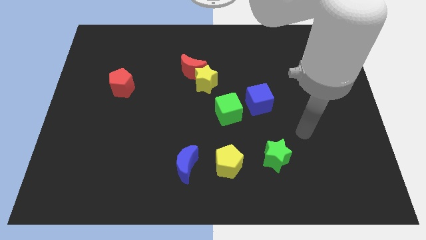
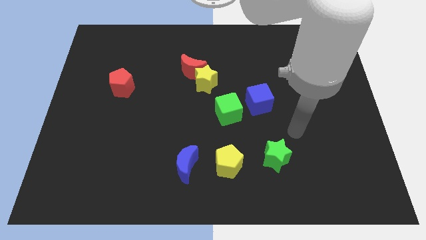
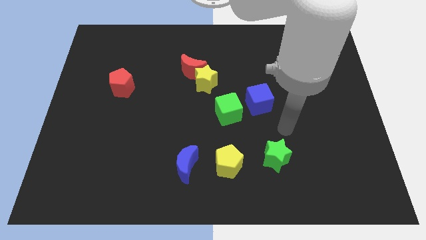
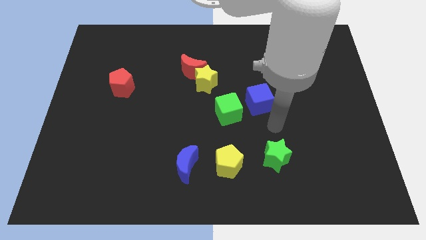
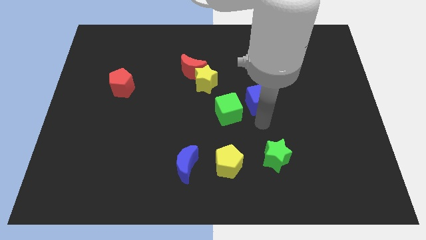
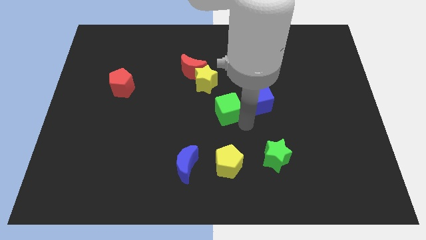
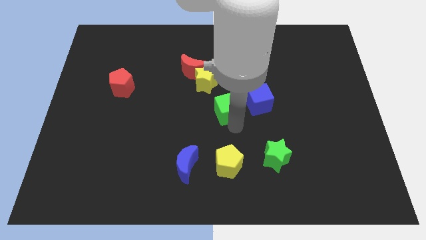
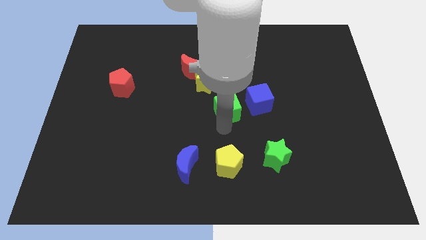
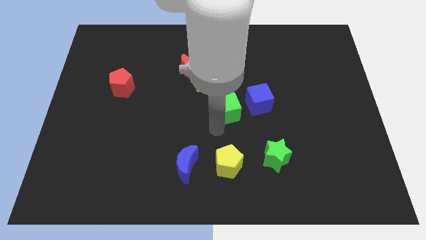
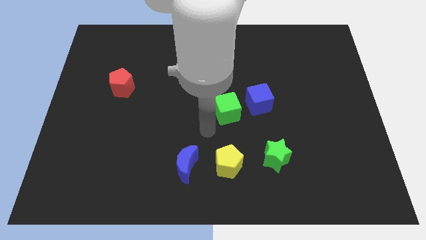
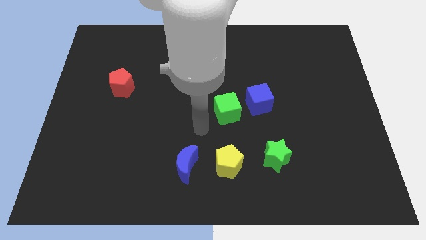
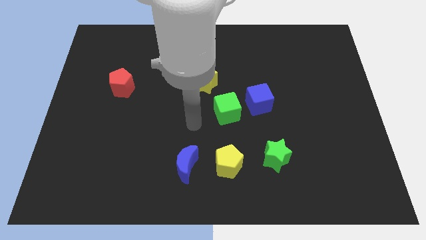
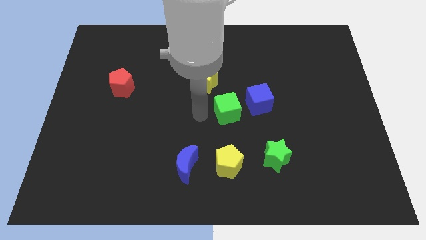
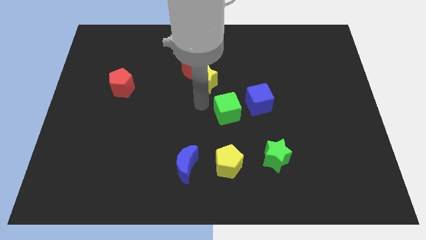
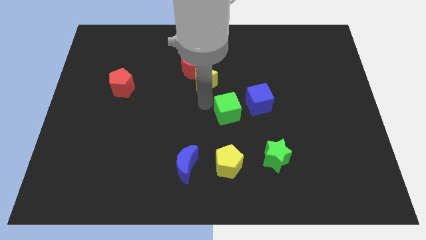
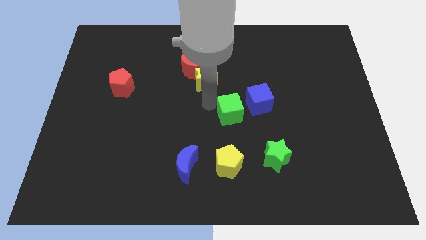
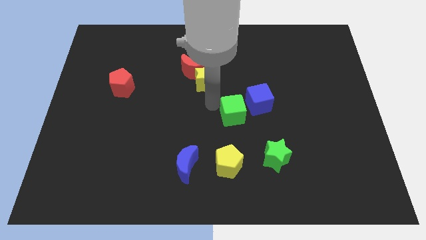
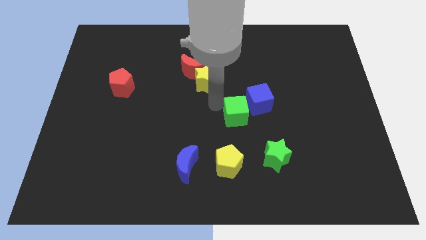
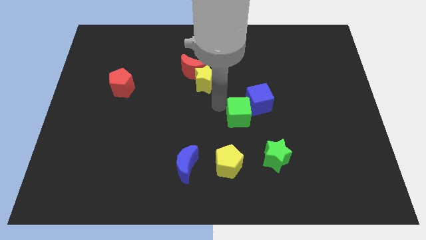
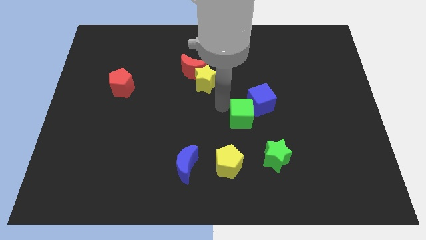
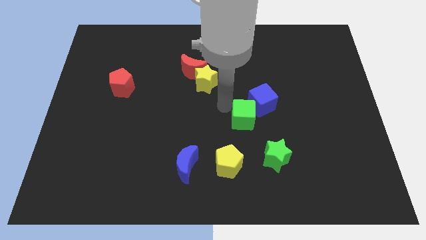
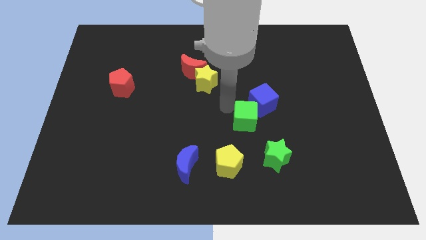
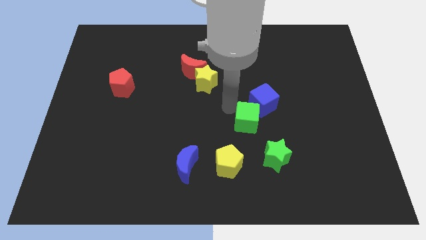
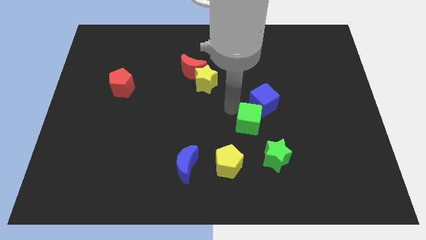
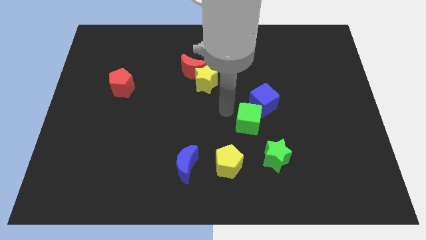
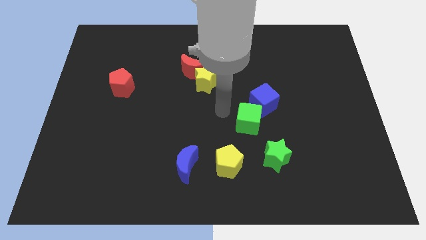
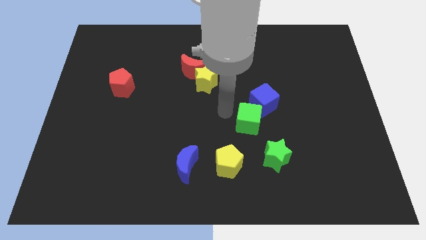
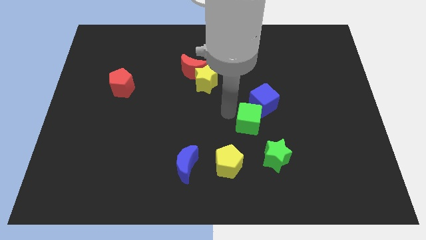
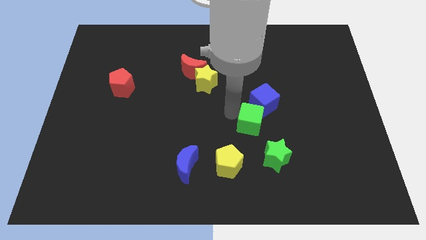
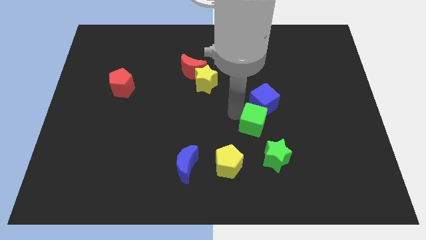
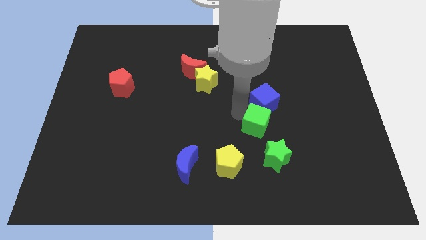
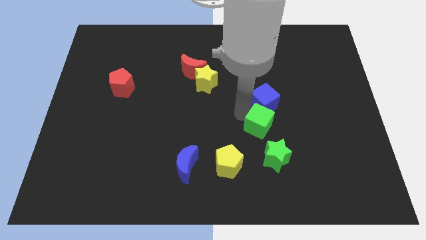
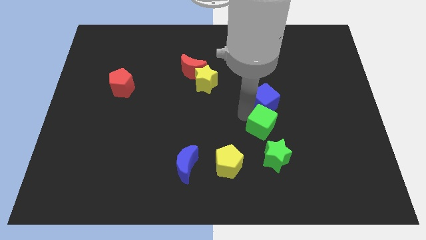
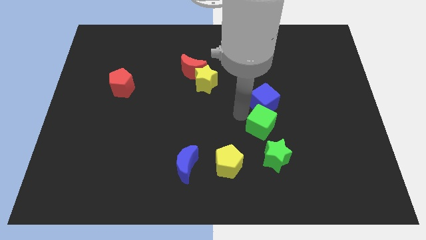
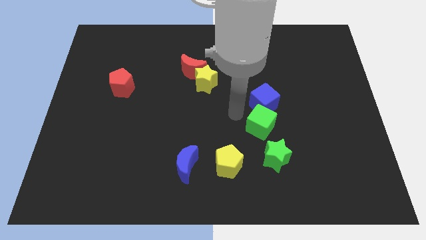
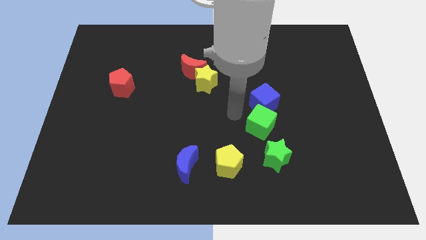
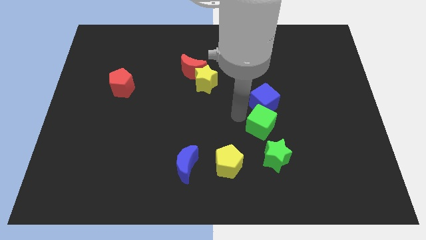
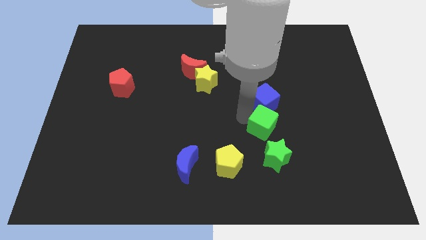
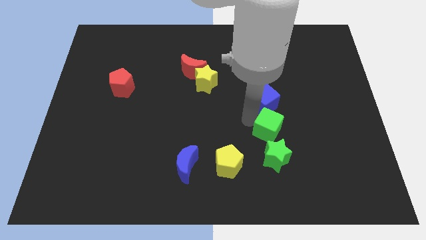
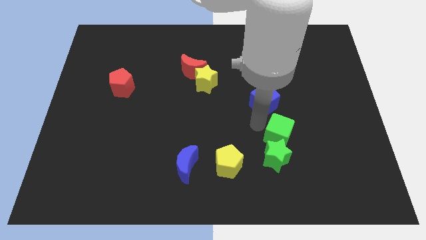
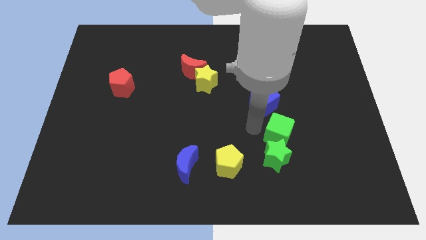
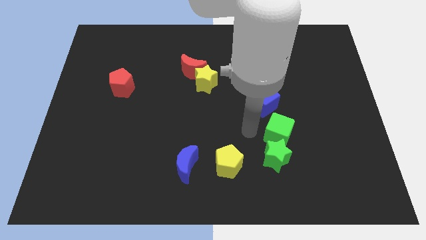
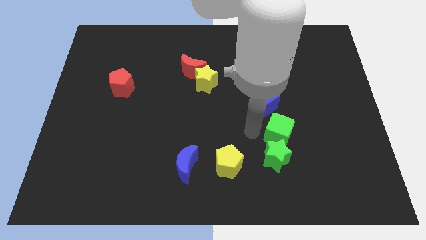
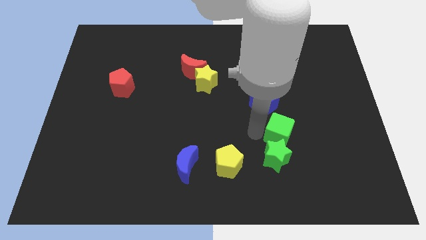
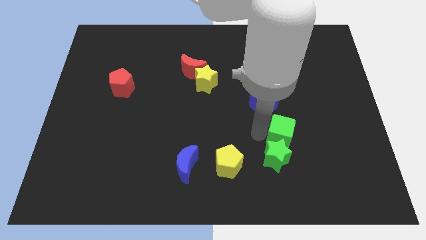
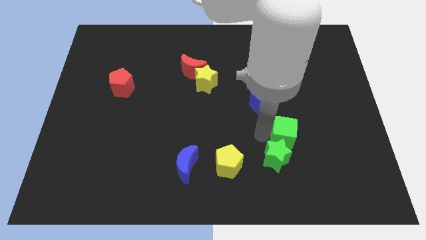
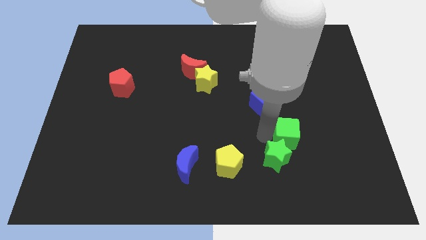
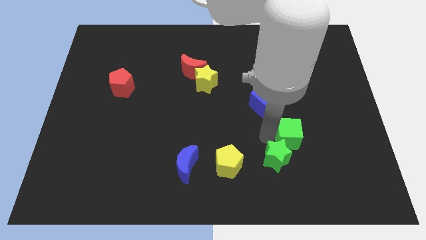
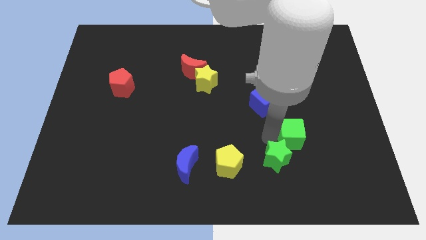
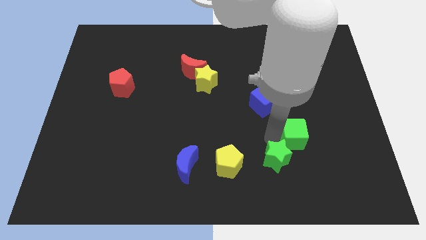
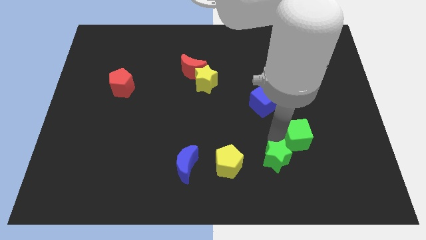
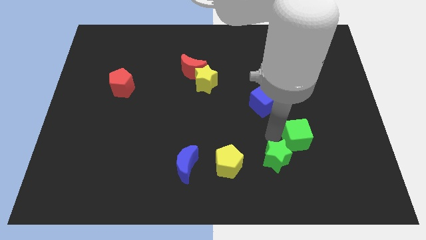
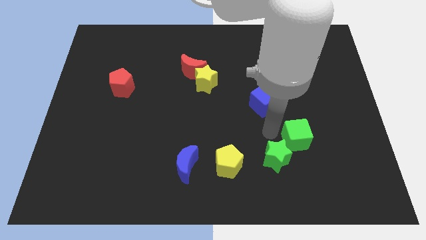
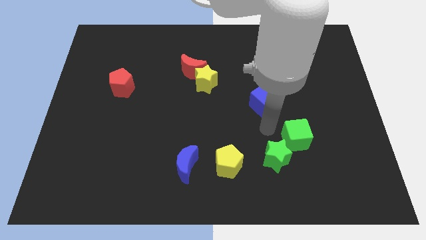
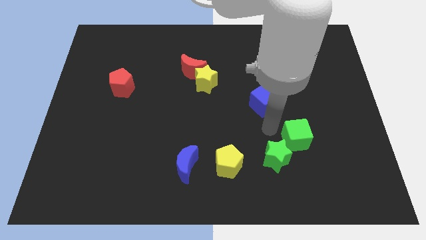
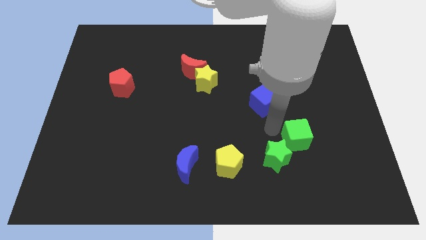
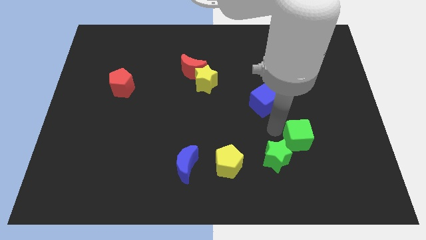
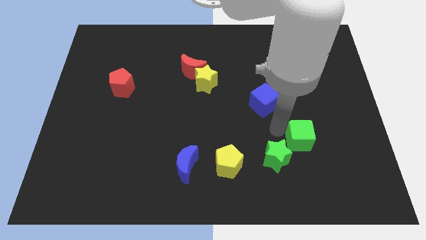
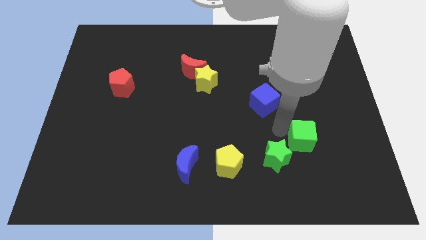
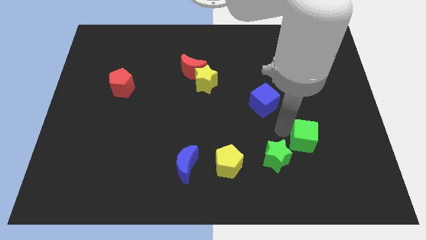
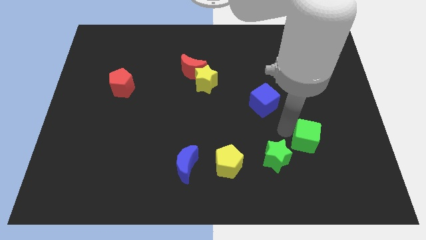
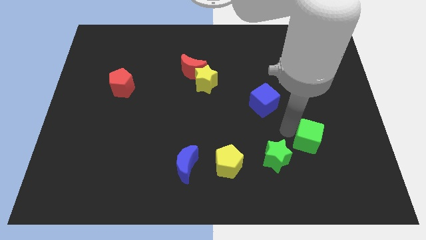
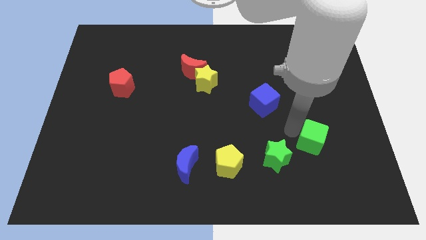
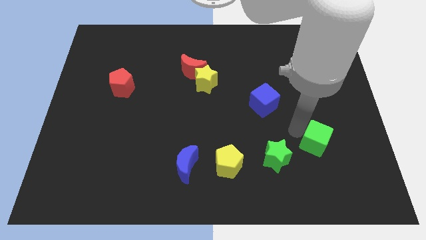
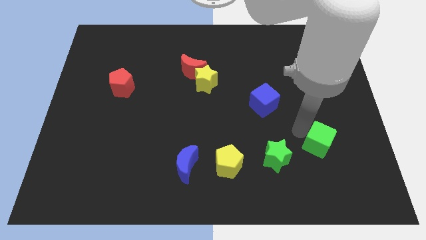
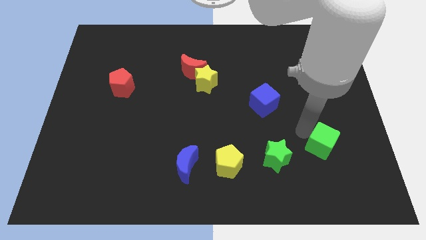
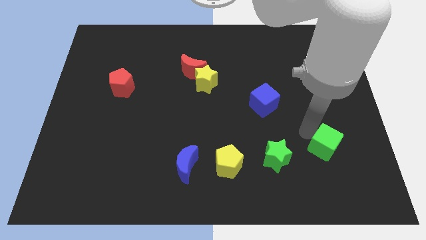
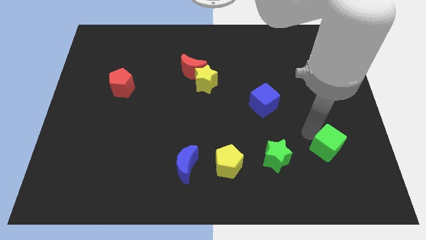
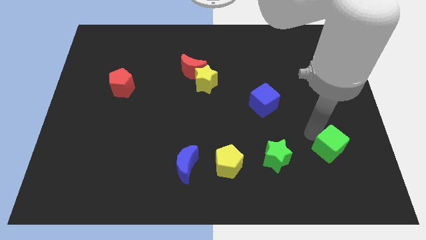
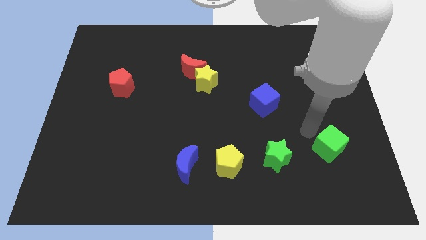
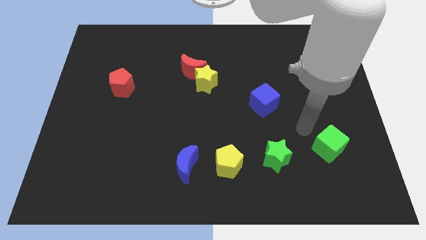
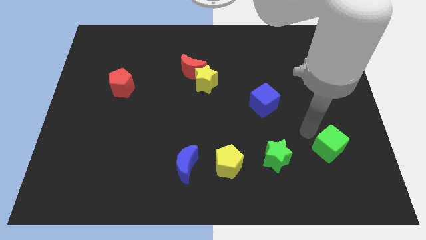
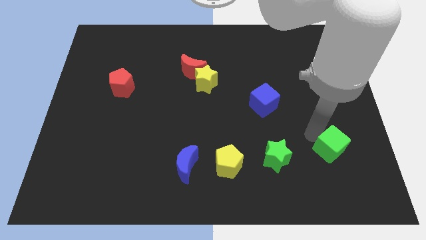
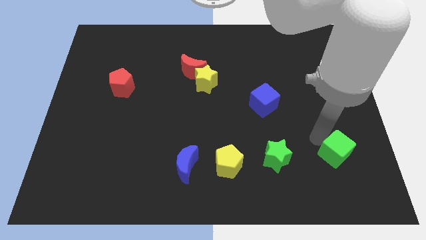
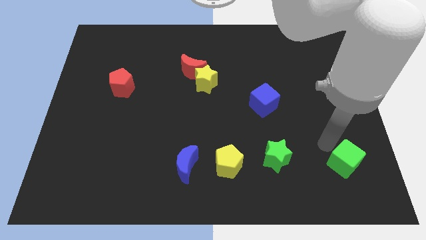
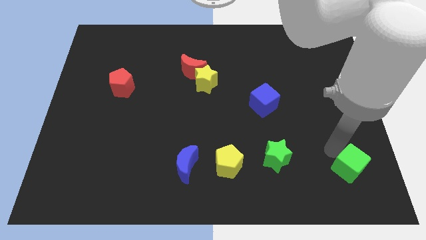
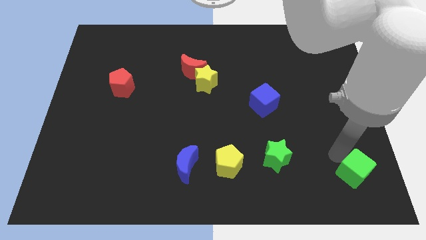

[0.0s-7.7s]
slide the green cube to the bottom right of the board
